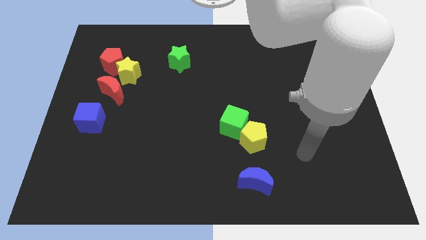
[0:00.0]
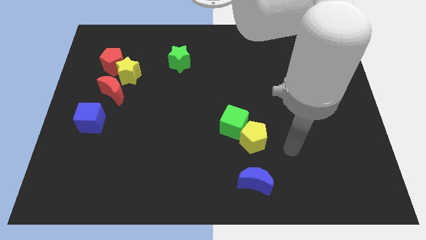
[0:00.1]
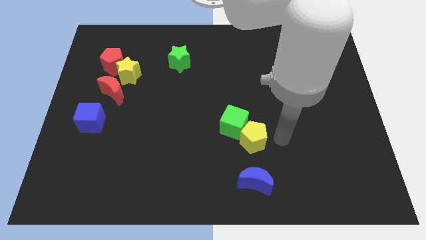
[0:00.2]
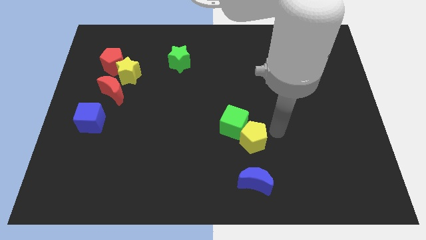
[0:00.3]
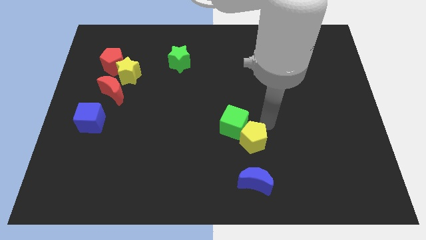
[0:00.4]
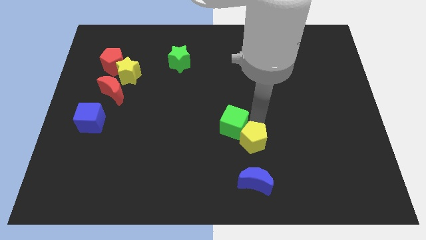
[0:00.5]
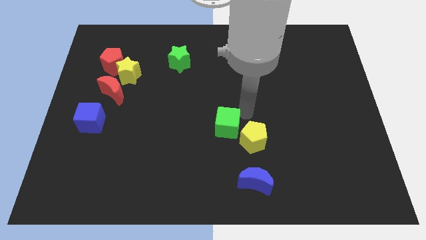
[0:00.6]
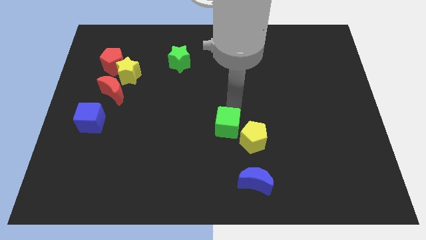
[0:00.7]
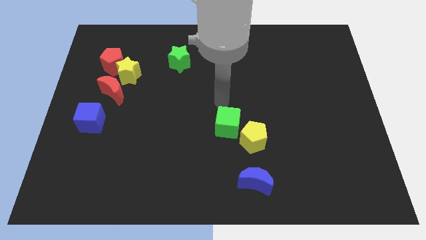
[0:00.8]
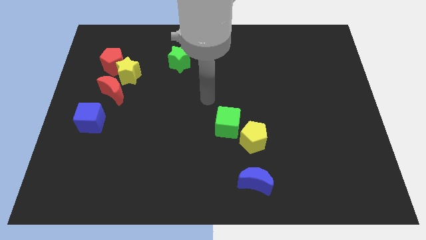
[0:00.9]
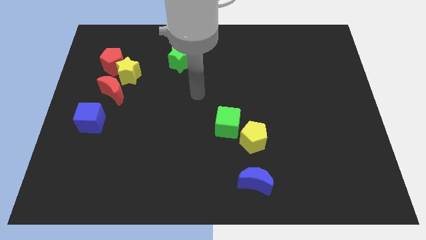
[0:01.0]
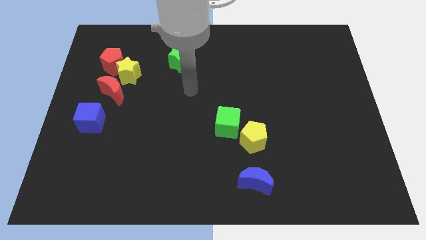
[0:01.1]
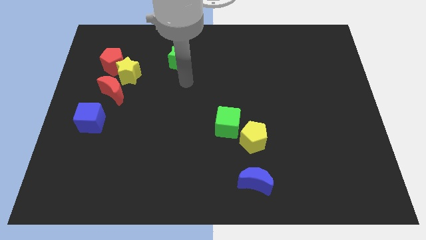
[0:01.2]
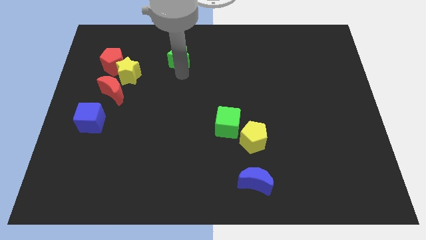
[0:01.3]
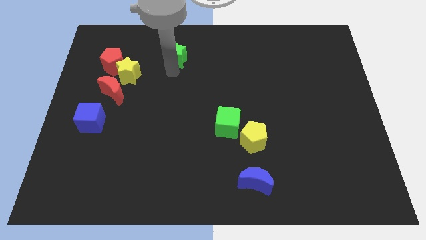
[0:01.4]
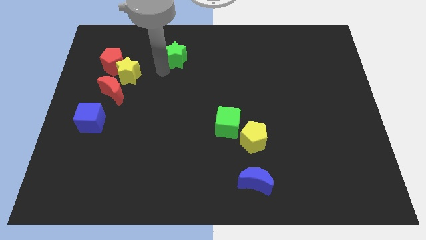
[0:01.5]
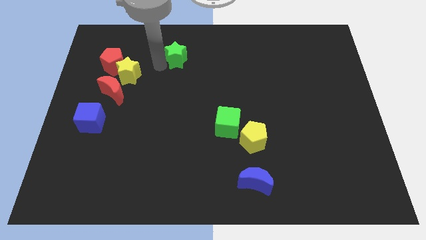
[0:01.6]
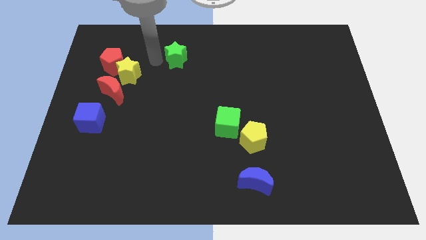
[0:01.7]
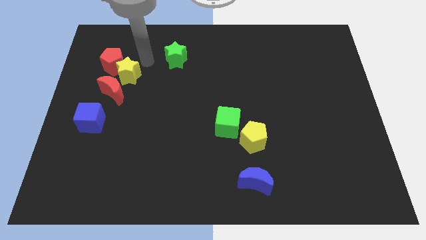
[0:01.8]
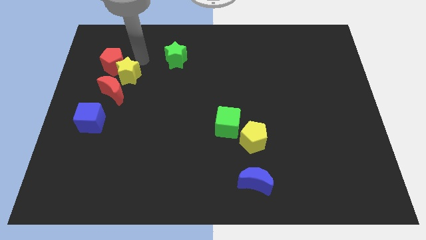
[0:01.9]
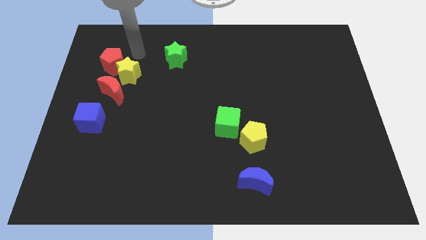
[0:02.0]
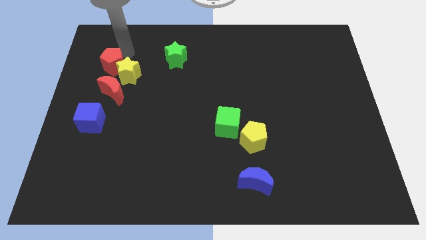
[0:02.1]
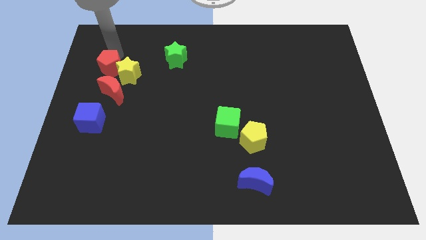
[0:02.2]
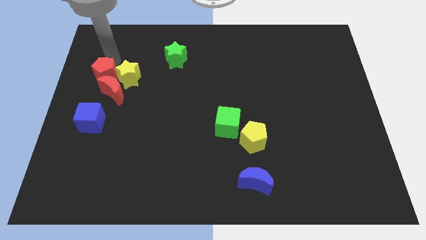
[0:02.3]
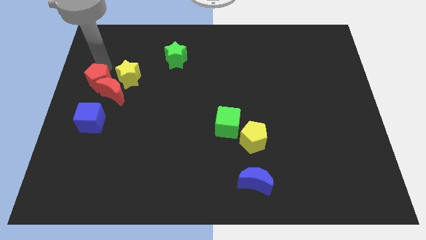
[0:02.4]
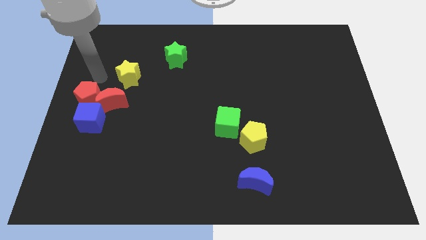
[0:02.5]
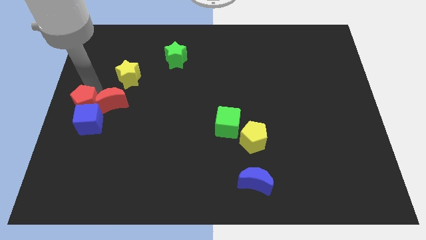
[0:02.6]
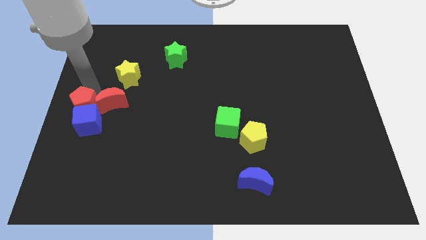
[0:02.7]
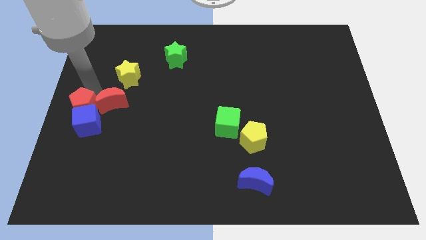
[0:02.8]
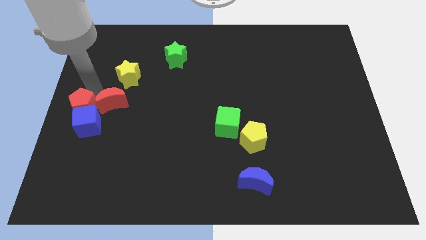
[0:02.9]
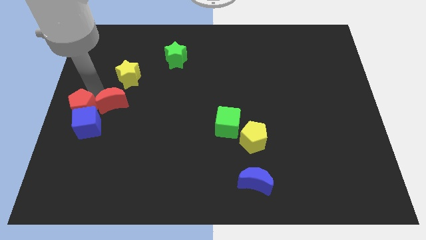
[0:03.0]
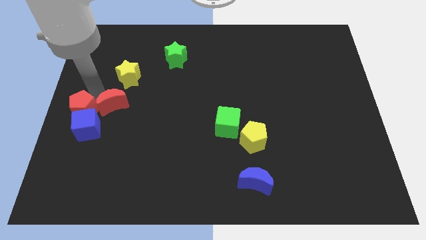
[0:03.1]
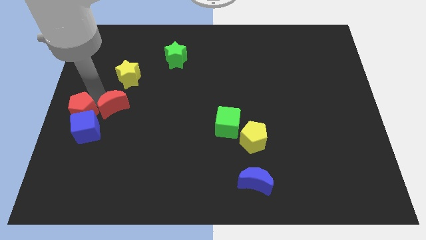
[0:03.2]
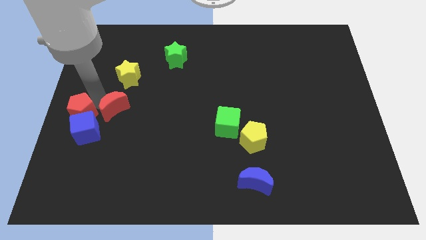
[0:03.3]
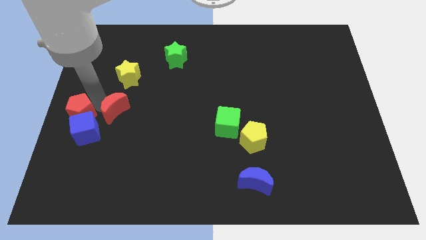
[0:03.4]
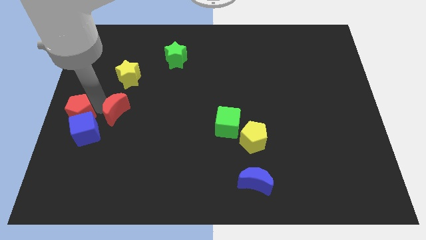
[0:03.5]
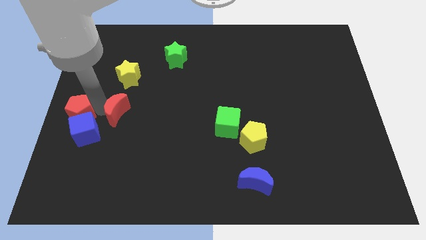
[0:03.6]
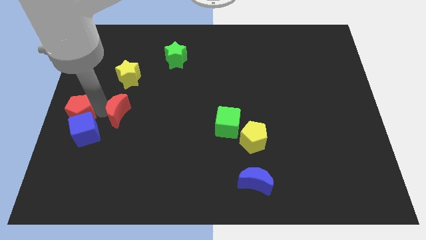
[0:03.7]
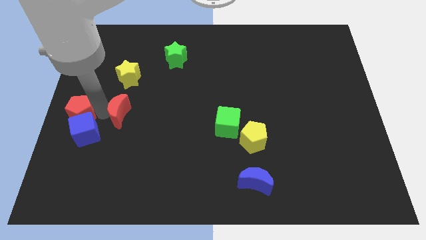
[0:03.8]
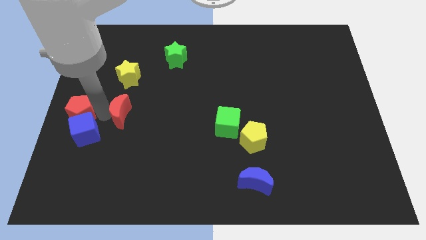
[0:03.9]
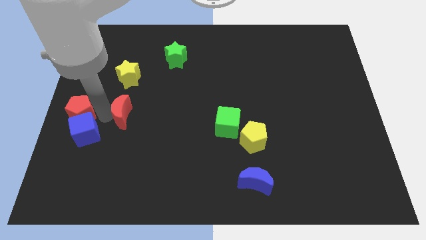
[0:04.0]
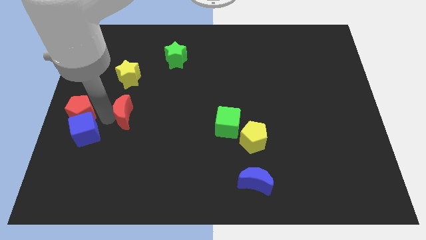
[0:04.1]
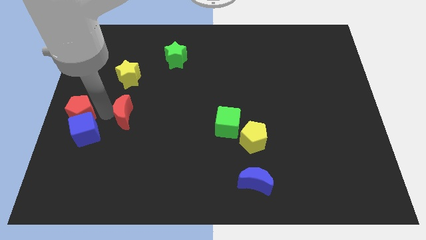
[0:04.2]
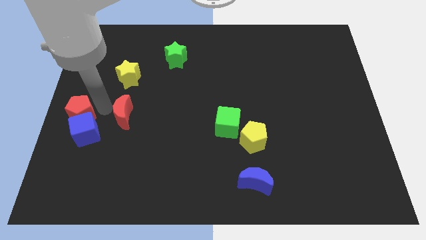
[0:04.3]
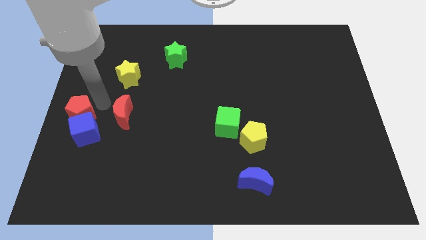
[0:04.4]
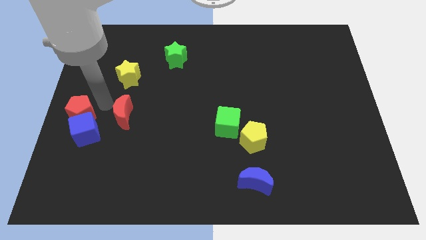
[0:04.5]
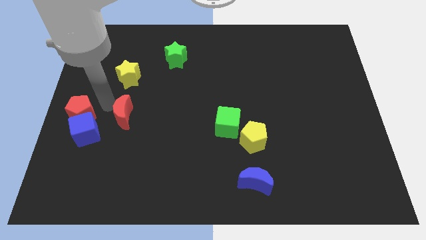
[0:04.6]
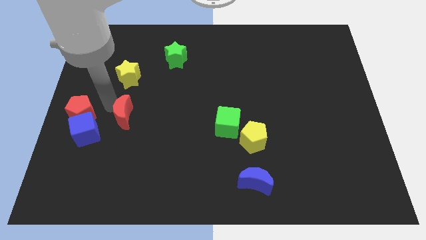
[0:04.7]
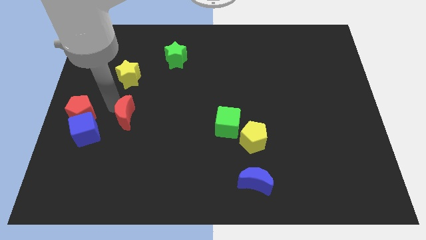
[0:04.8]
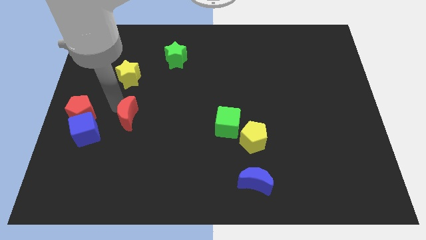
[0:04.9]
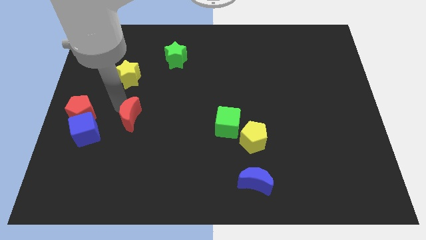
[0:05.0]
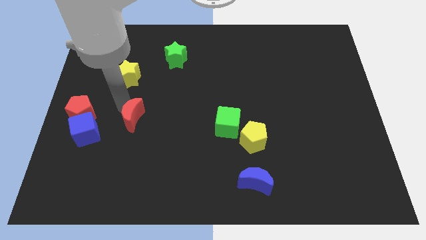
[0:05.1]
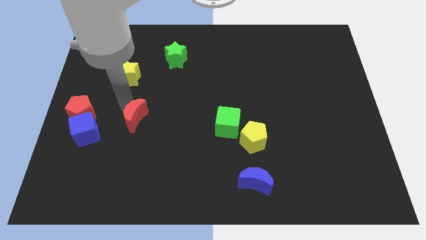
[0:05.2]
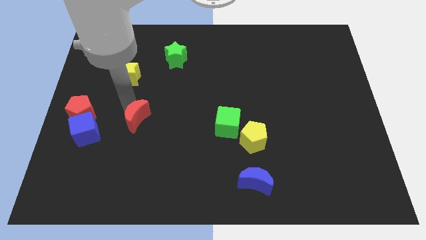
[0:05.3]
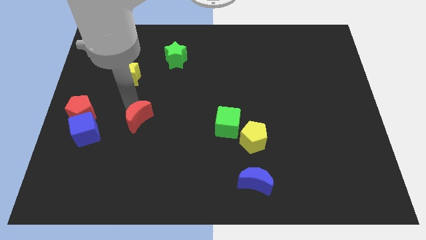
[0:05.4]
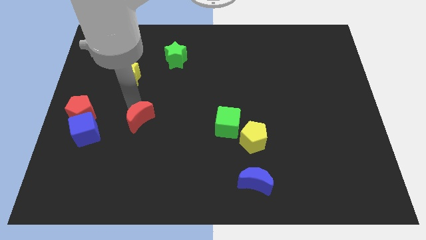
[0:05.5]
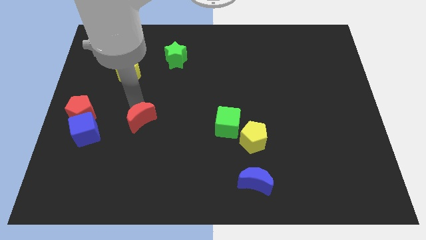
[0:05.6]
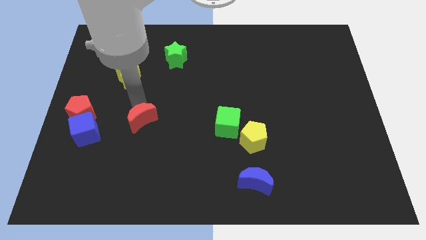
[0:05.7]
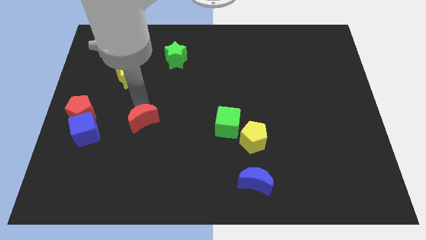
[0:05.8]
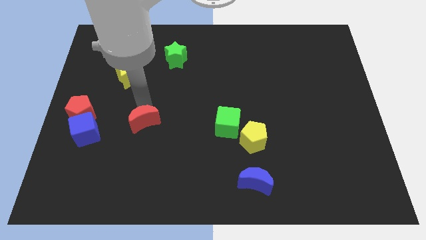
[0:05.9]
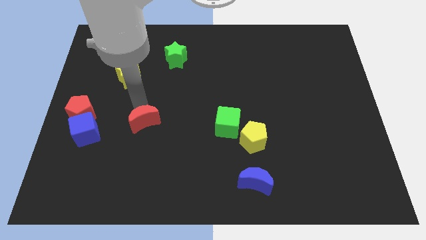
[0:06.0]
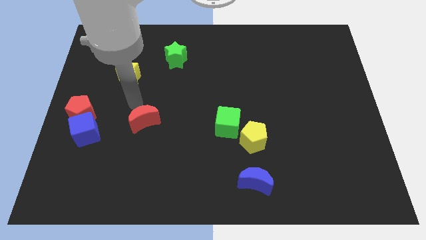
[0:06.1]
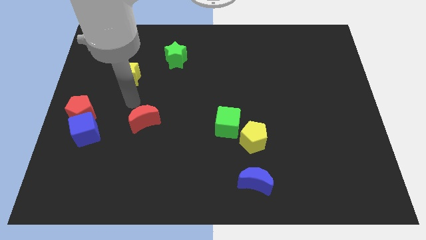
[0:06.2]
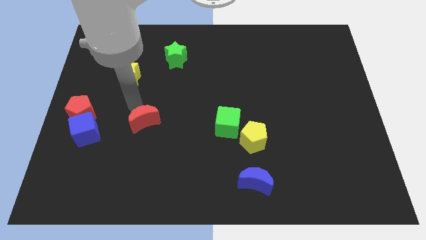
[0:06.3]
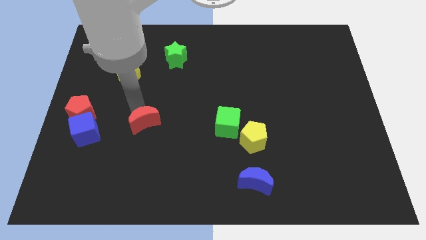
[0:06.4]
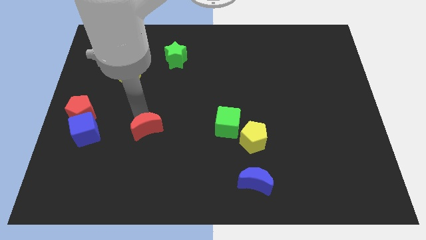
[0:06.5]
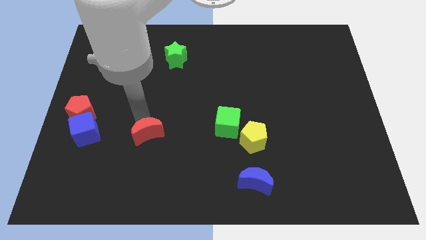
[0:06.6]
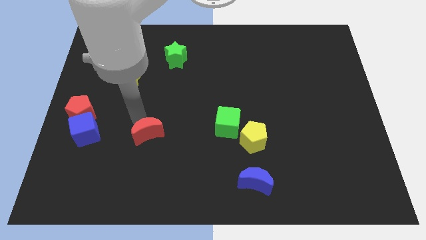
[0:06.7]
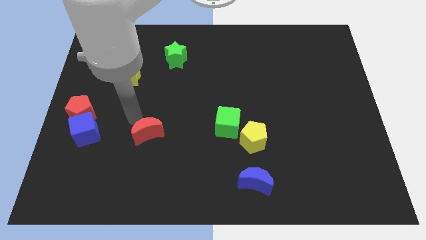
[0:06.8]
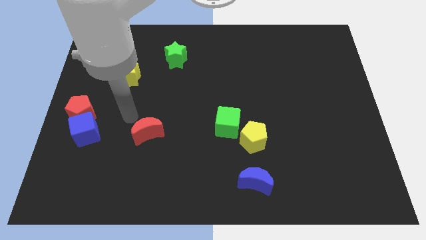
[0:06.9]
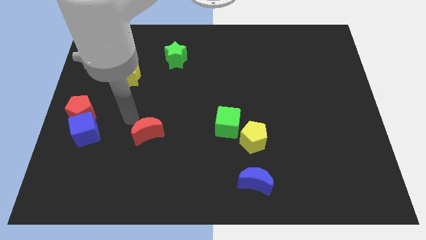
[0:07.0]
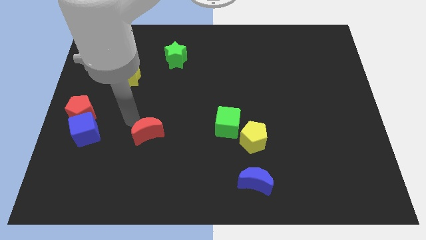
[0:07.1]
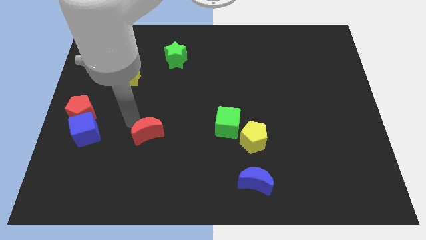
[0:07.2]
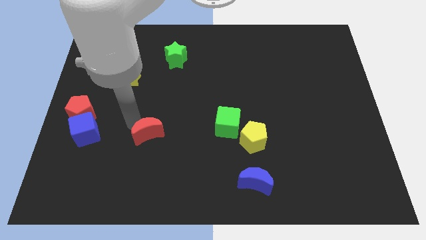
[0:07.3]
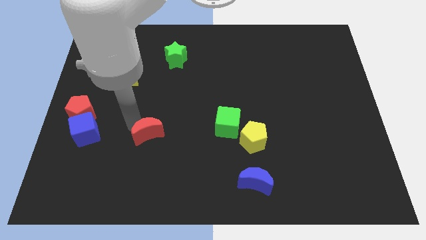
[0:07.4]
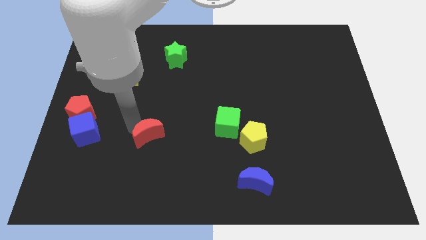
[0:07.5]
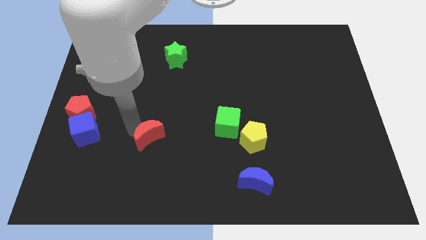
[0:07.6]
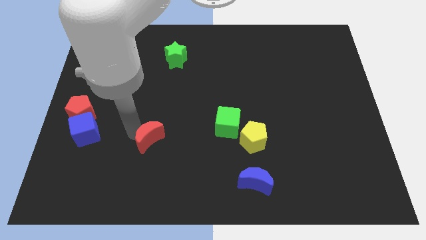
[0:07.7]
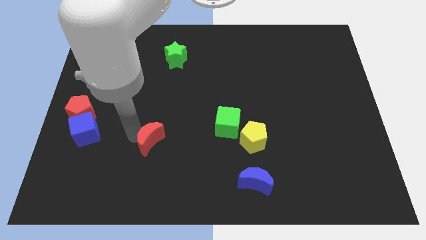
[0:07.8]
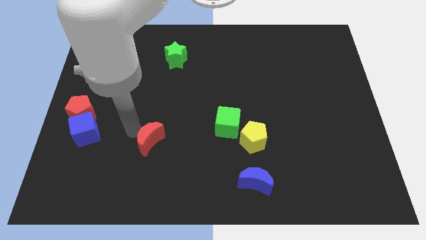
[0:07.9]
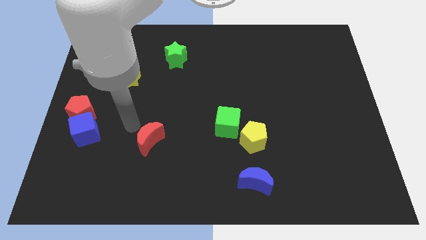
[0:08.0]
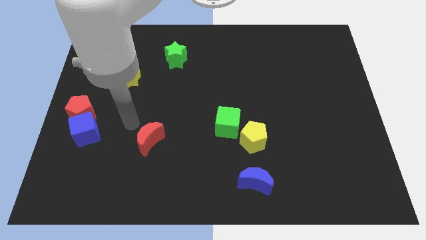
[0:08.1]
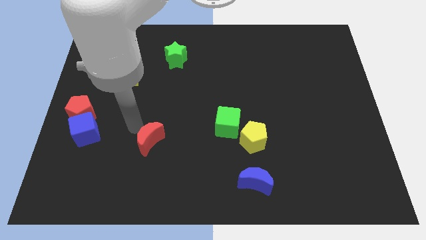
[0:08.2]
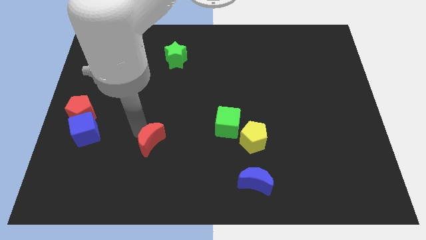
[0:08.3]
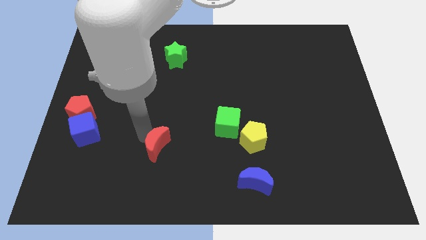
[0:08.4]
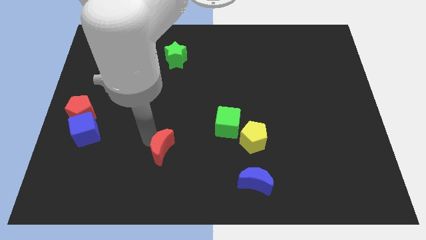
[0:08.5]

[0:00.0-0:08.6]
slide the red moon diagonally downwards and right
